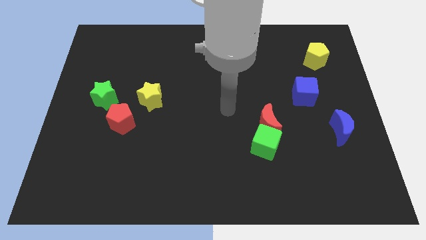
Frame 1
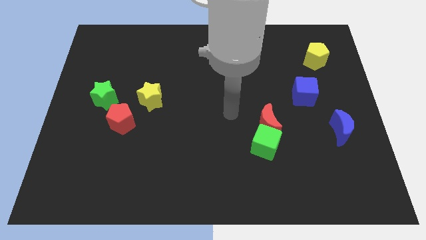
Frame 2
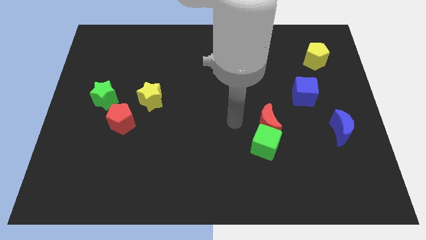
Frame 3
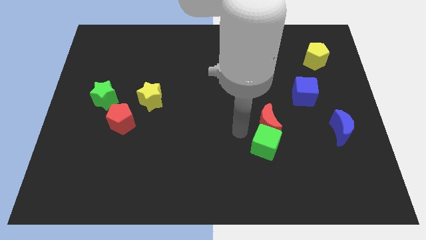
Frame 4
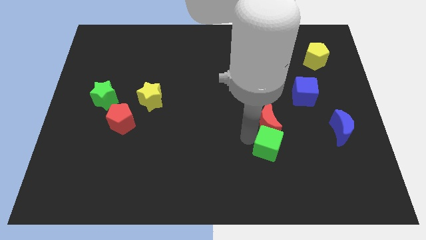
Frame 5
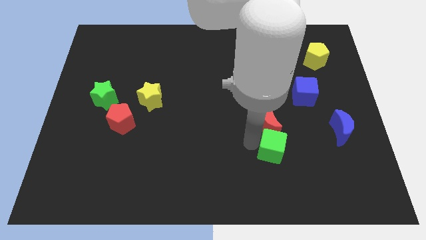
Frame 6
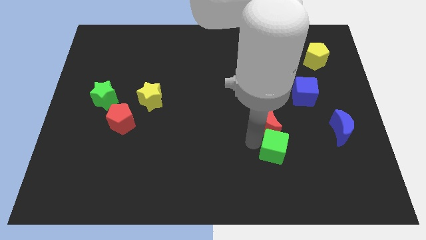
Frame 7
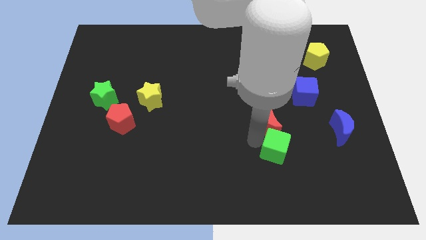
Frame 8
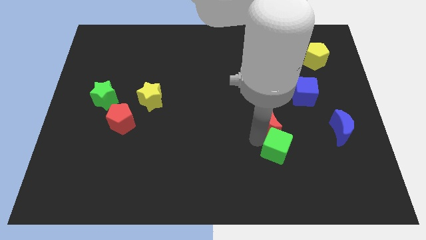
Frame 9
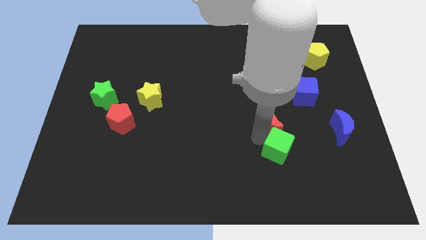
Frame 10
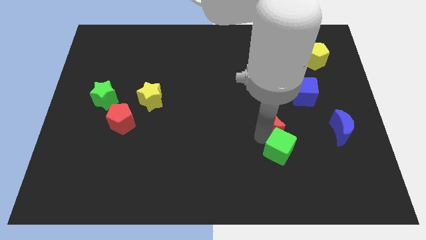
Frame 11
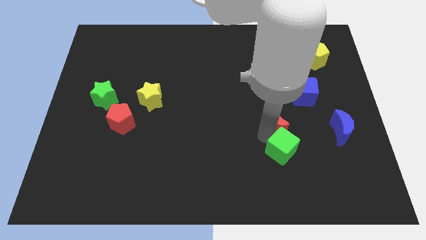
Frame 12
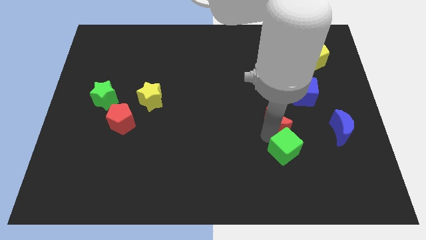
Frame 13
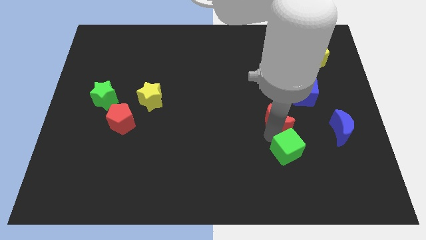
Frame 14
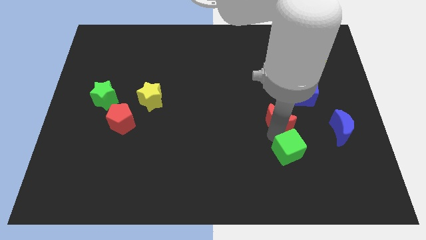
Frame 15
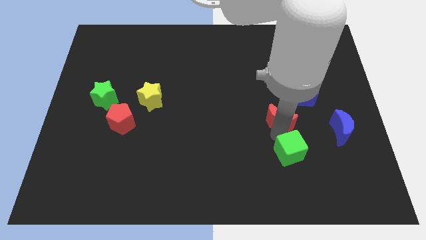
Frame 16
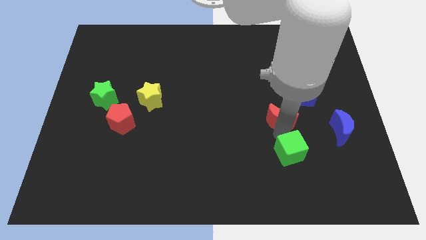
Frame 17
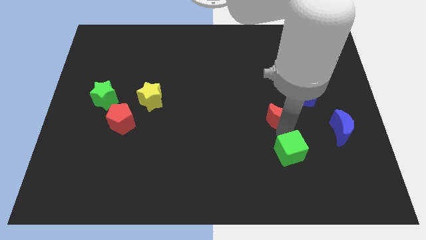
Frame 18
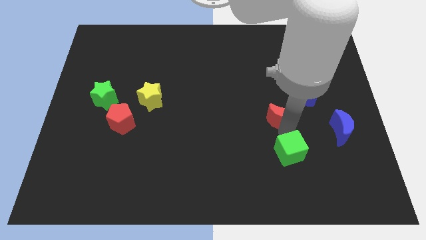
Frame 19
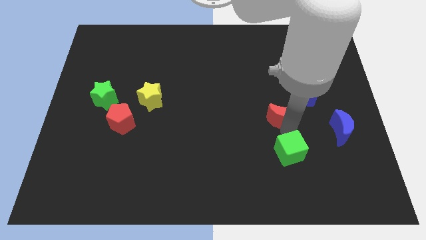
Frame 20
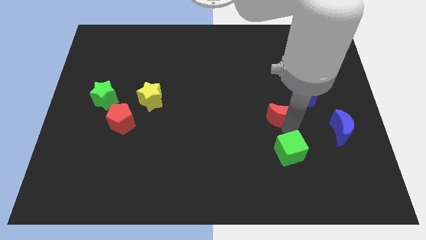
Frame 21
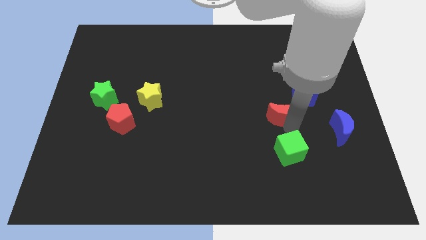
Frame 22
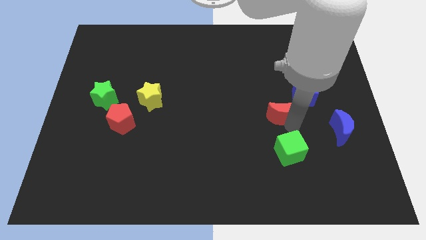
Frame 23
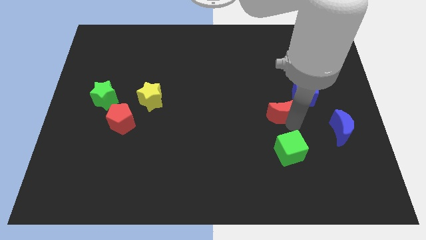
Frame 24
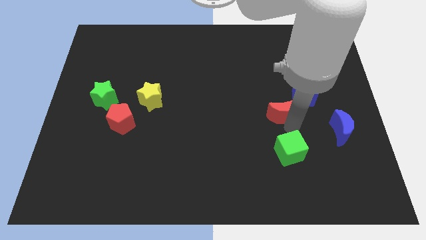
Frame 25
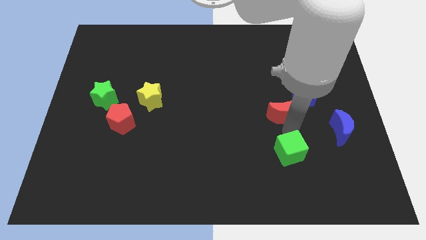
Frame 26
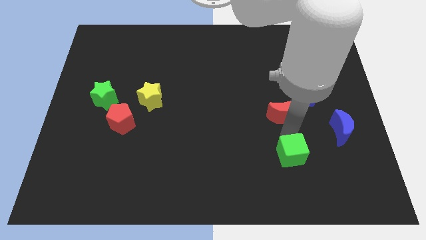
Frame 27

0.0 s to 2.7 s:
pull the red moon apart from the green cube

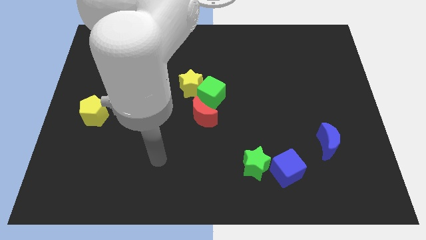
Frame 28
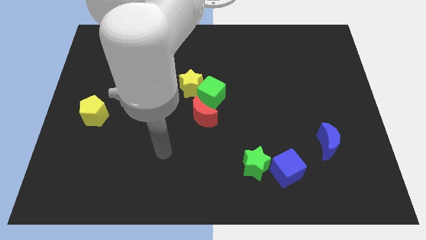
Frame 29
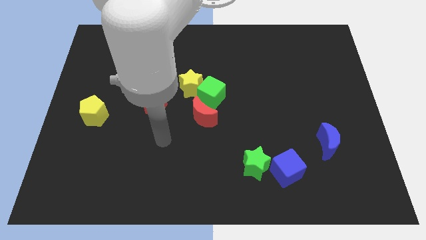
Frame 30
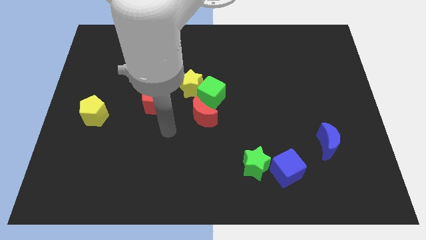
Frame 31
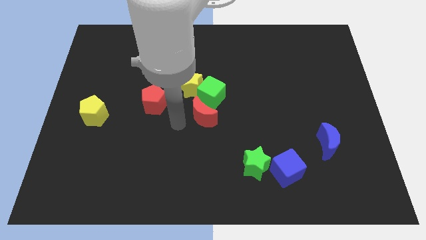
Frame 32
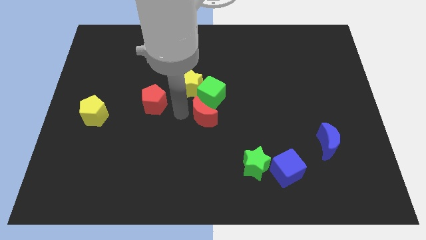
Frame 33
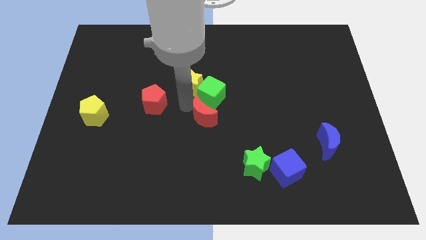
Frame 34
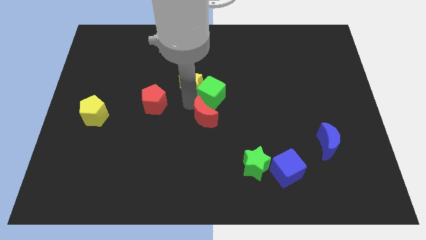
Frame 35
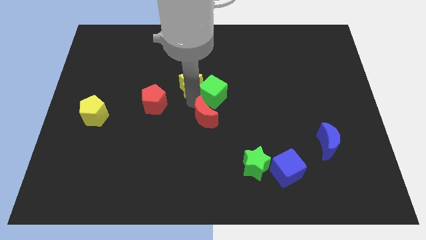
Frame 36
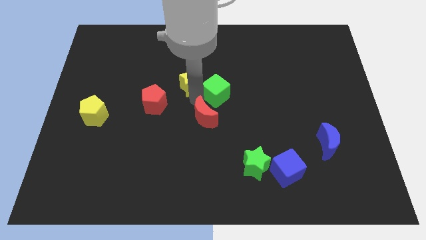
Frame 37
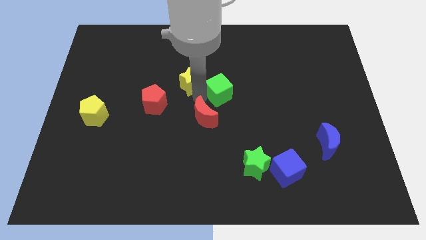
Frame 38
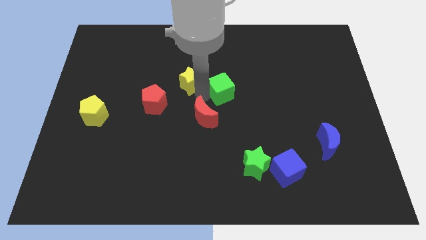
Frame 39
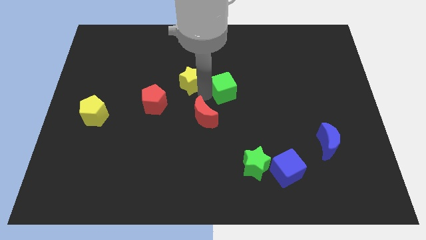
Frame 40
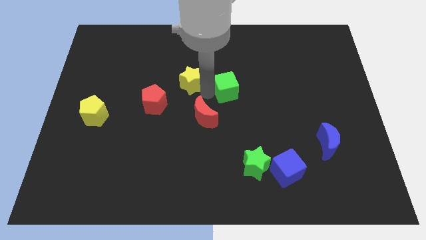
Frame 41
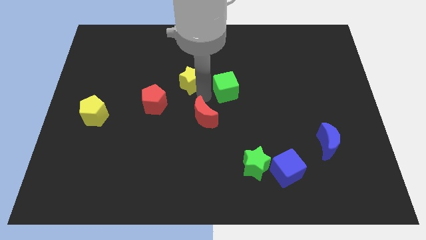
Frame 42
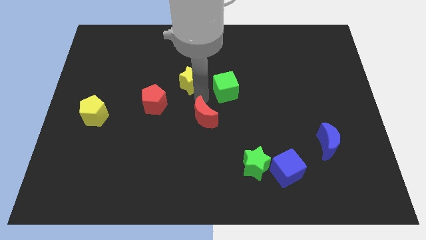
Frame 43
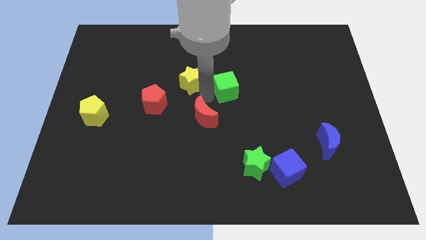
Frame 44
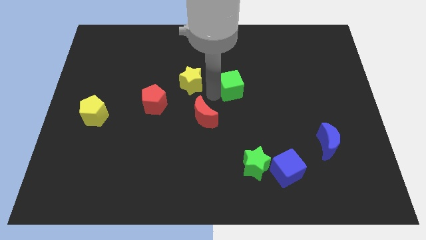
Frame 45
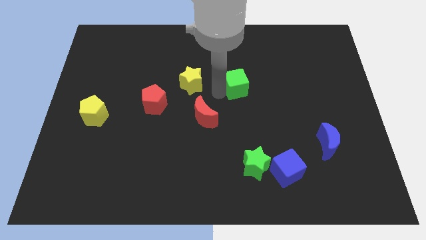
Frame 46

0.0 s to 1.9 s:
move the green cube away from the yellow star and red moon

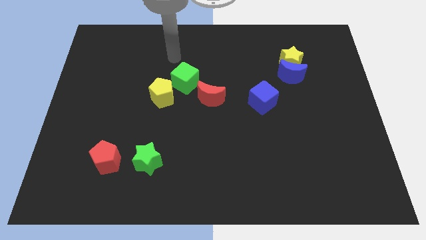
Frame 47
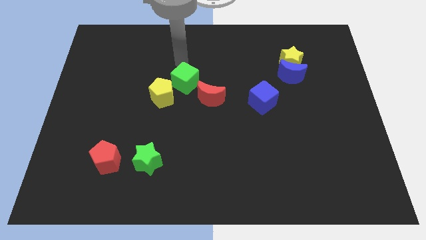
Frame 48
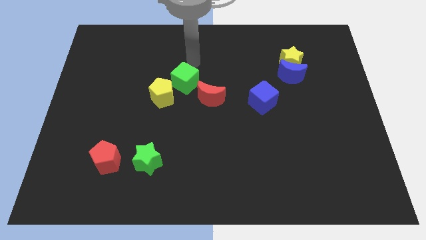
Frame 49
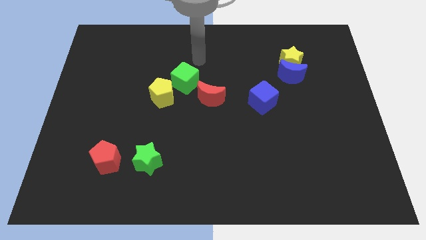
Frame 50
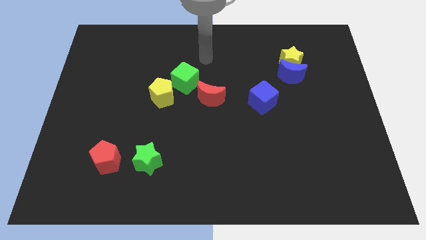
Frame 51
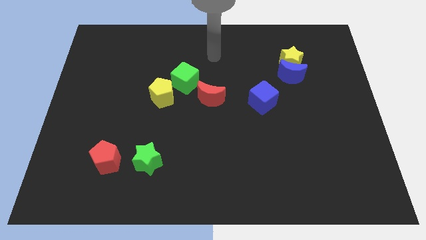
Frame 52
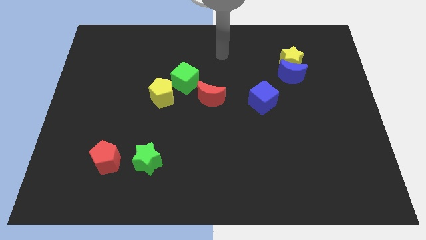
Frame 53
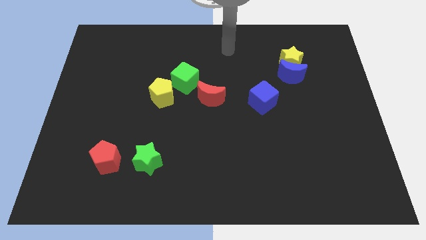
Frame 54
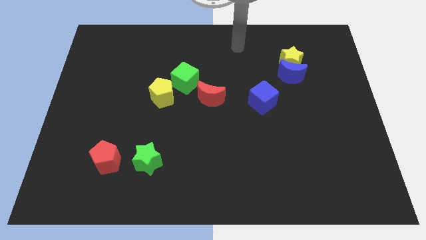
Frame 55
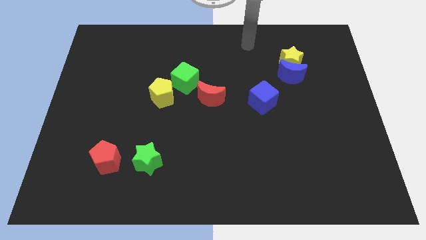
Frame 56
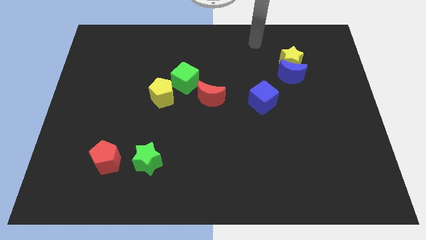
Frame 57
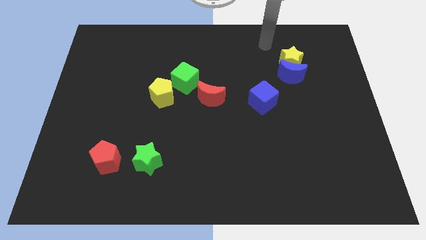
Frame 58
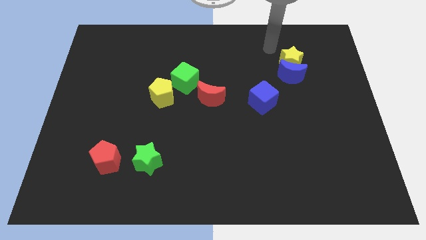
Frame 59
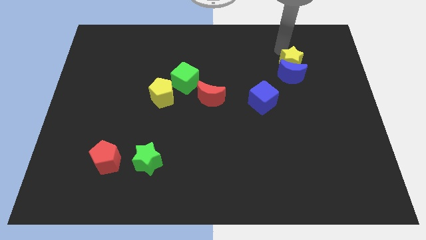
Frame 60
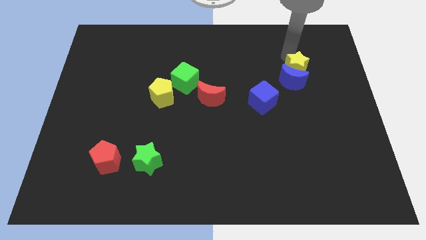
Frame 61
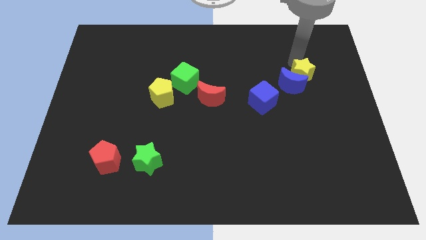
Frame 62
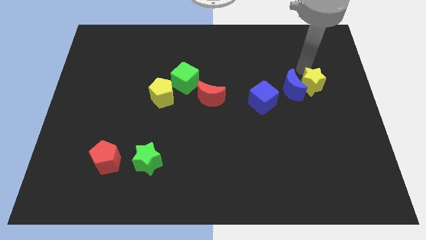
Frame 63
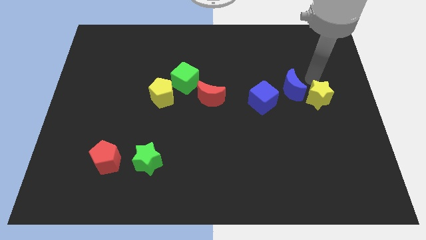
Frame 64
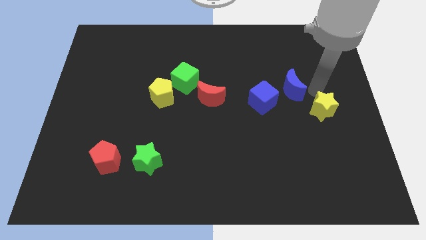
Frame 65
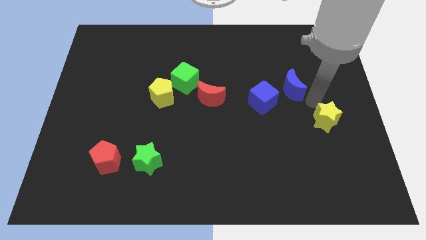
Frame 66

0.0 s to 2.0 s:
separate the blue moon from the yellow star

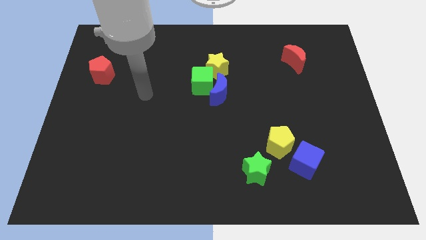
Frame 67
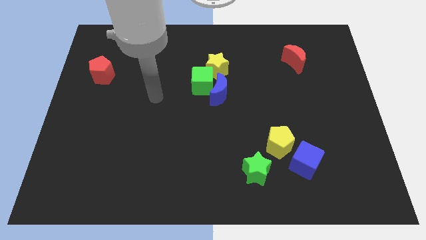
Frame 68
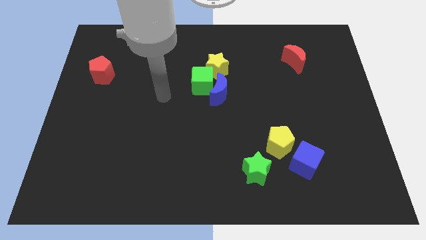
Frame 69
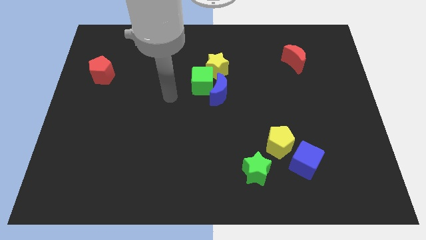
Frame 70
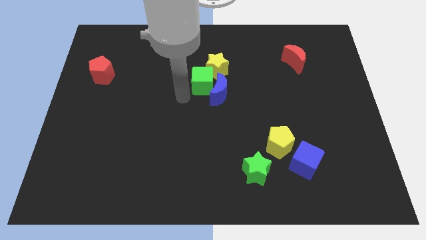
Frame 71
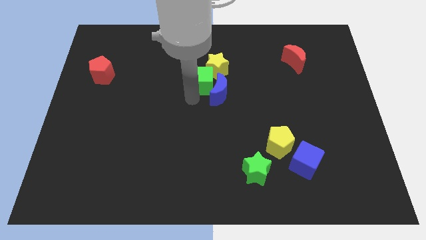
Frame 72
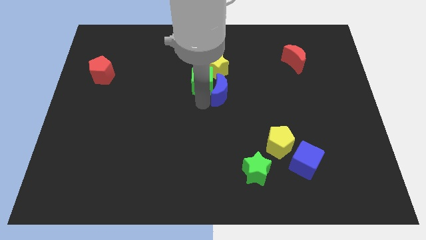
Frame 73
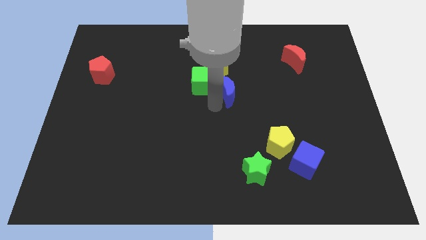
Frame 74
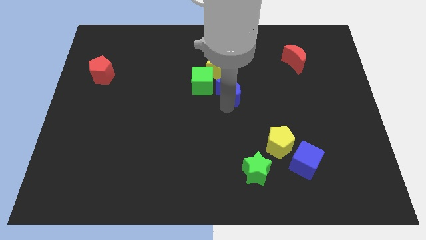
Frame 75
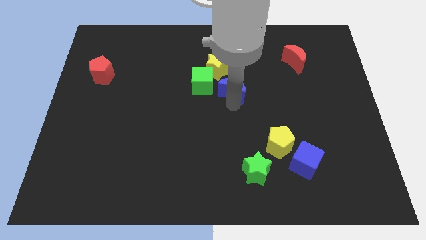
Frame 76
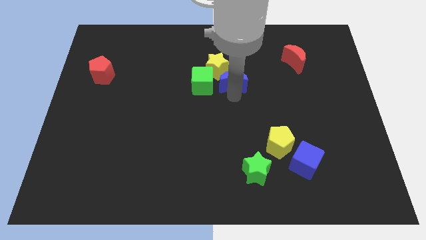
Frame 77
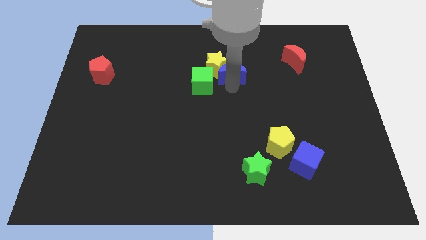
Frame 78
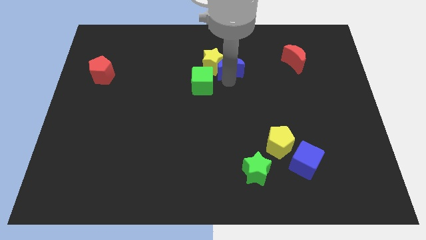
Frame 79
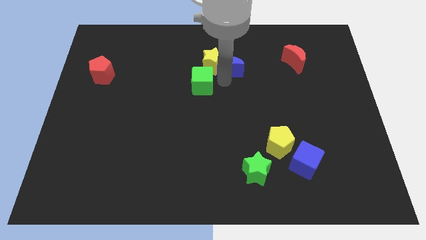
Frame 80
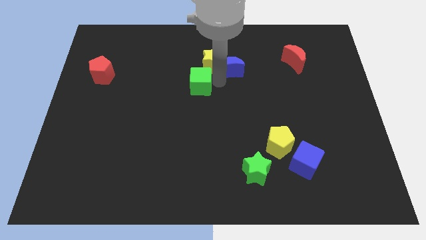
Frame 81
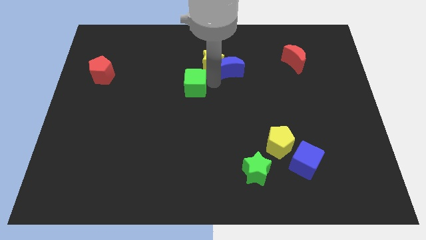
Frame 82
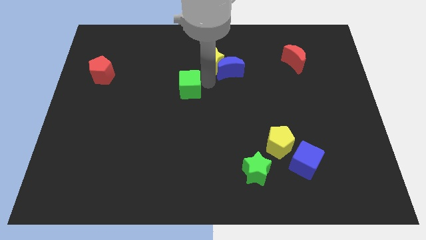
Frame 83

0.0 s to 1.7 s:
separate the green cube from the blue moon and yellow star

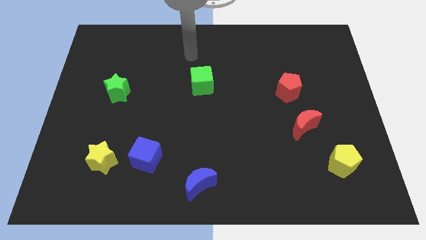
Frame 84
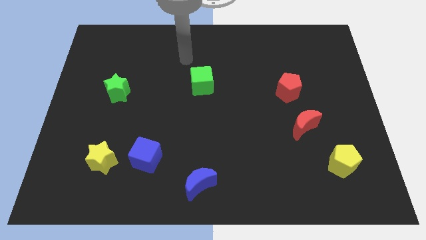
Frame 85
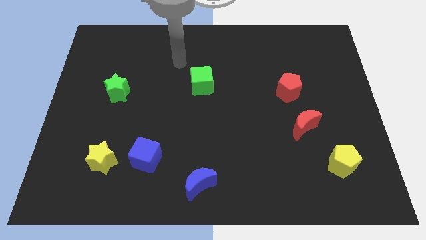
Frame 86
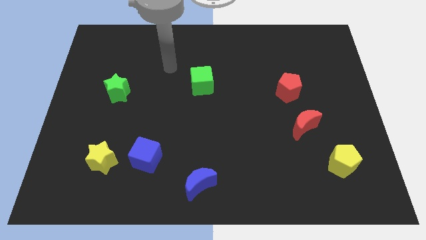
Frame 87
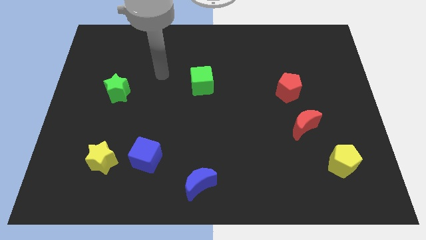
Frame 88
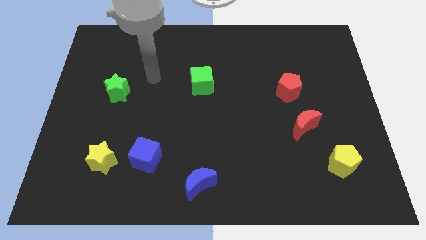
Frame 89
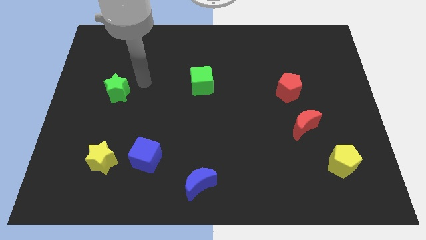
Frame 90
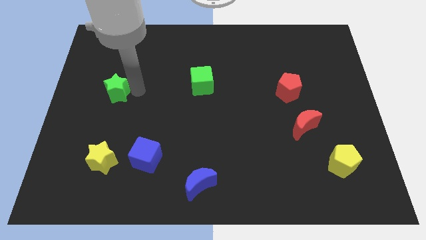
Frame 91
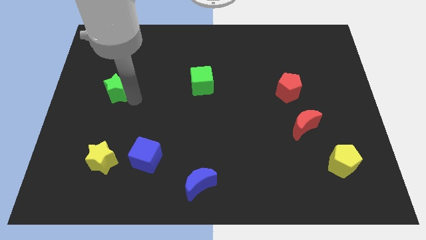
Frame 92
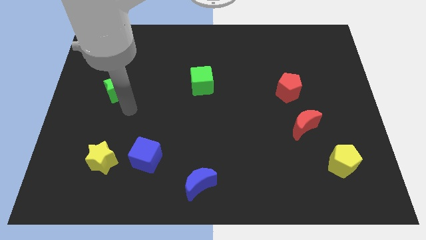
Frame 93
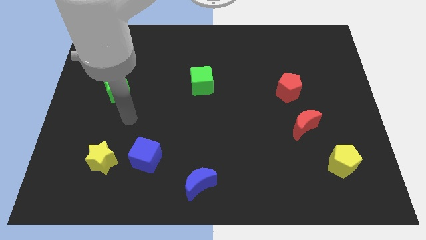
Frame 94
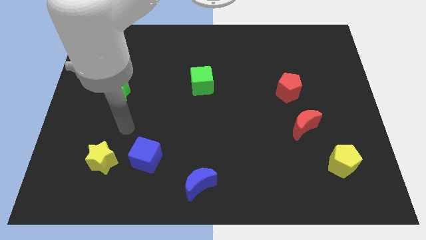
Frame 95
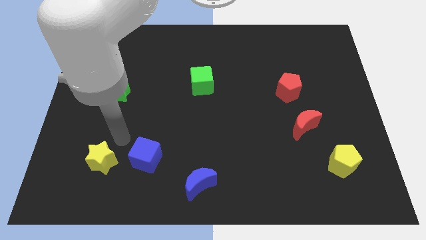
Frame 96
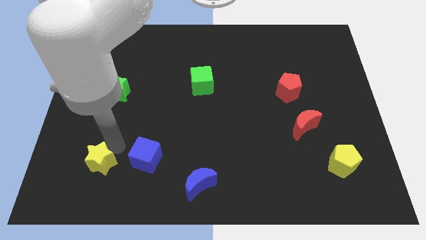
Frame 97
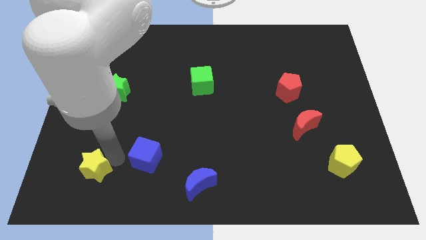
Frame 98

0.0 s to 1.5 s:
pull the blue cube apart from the yellow star
